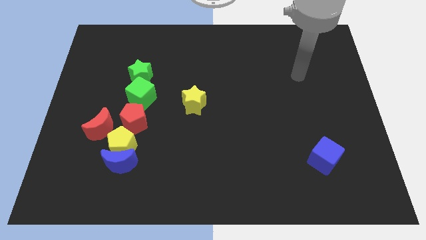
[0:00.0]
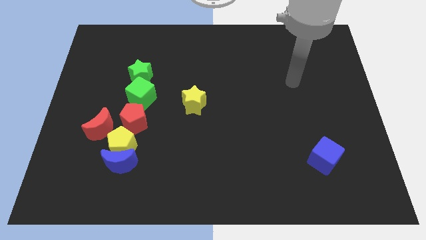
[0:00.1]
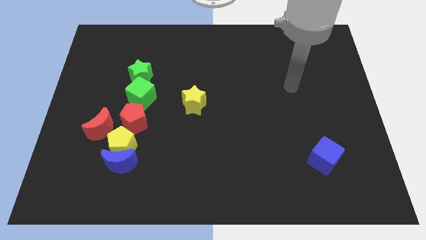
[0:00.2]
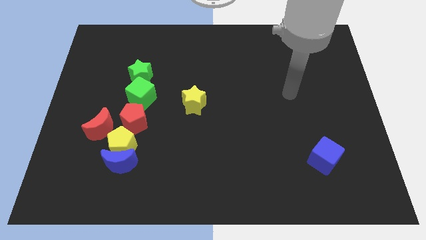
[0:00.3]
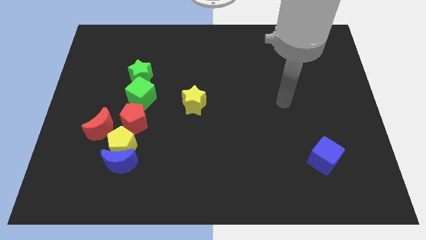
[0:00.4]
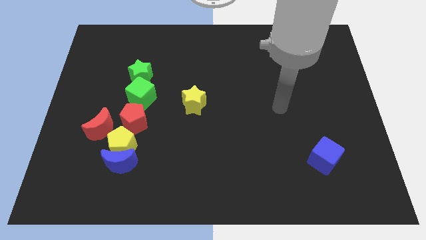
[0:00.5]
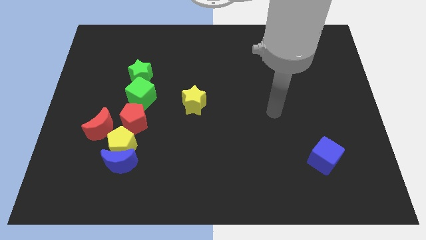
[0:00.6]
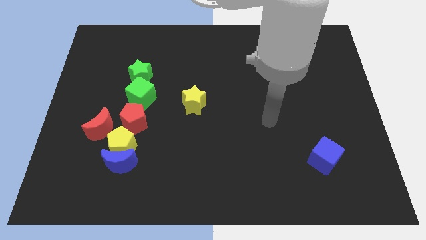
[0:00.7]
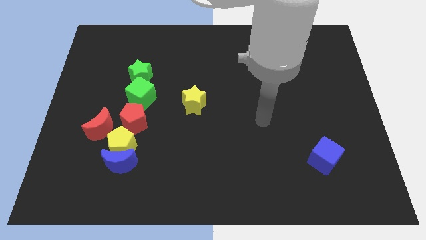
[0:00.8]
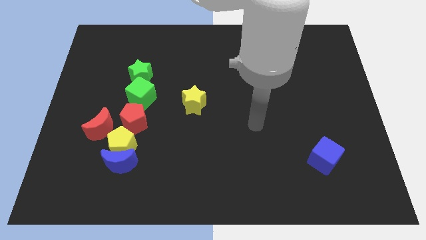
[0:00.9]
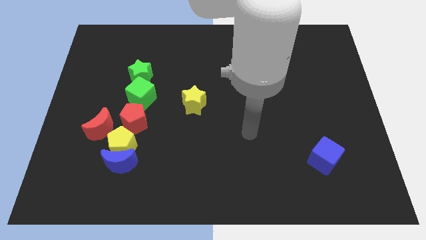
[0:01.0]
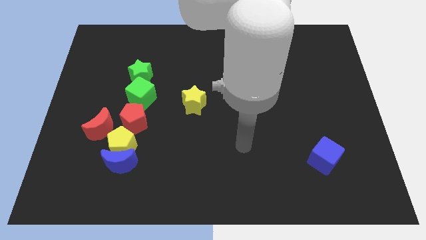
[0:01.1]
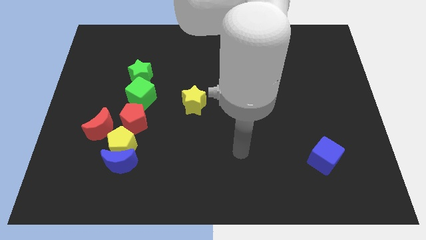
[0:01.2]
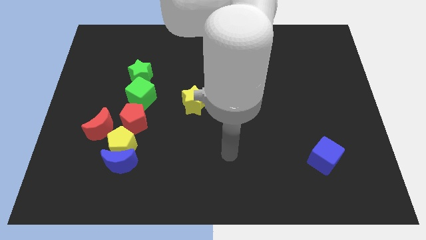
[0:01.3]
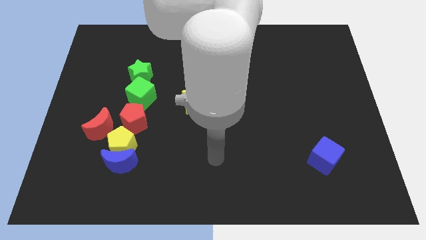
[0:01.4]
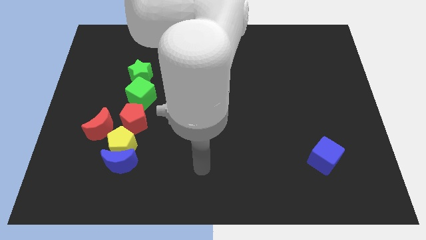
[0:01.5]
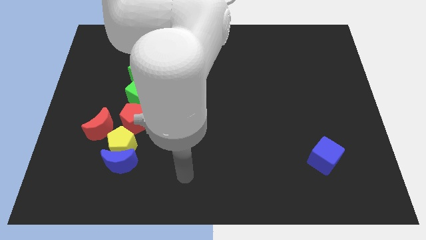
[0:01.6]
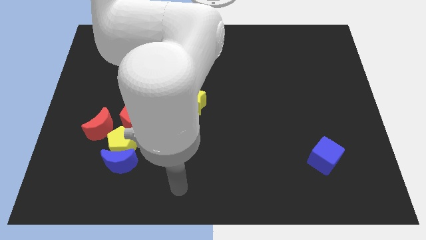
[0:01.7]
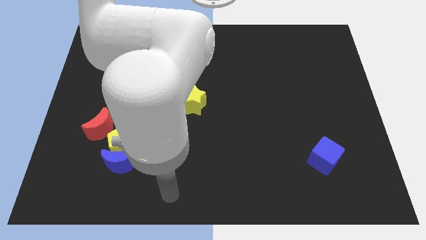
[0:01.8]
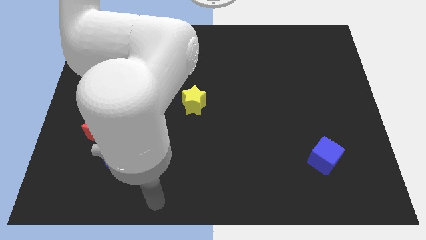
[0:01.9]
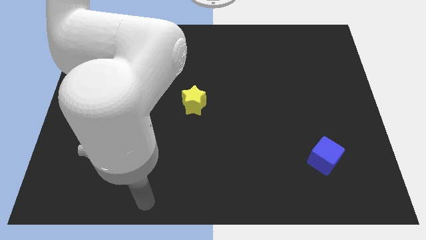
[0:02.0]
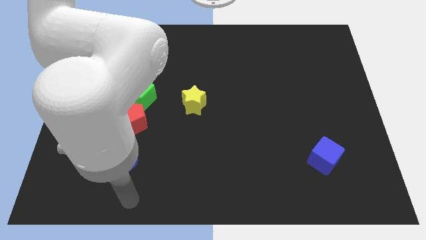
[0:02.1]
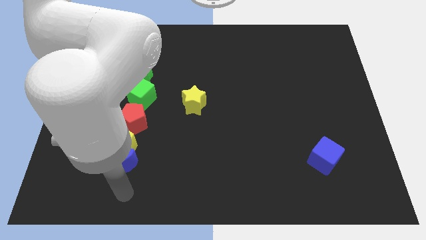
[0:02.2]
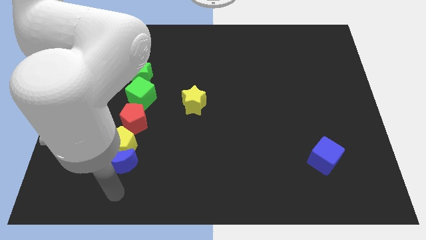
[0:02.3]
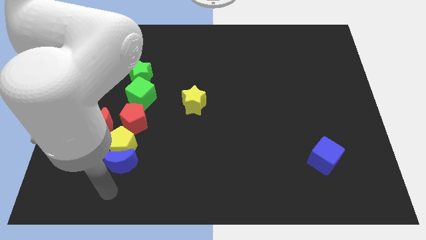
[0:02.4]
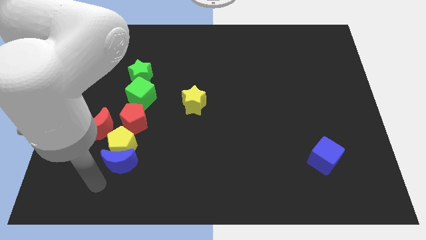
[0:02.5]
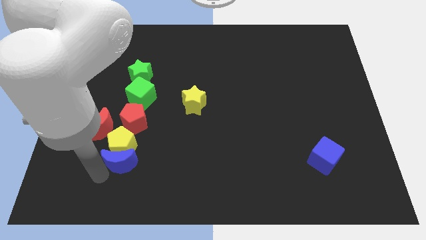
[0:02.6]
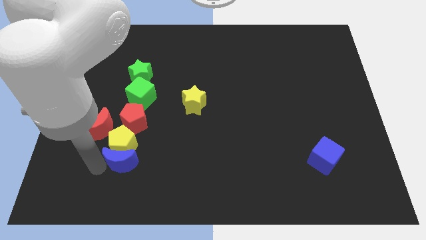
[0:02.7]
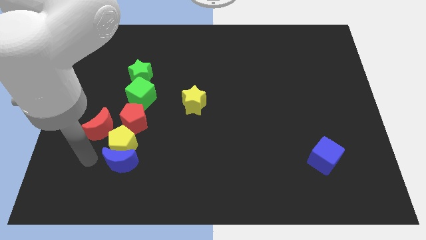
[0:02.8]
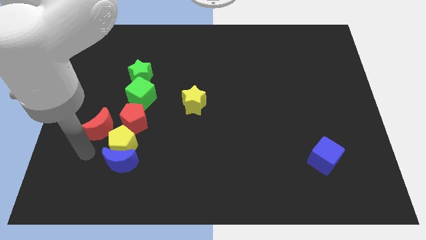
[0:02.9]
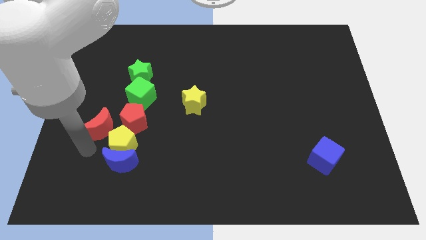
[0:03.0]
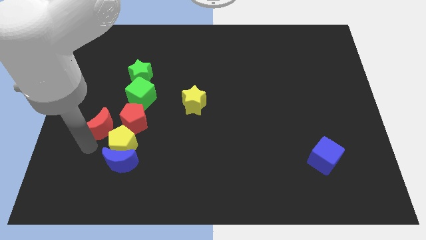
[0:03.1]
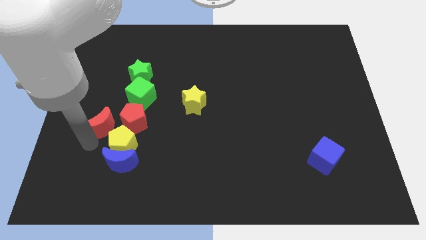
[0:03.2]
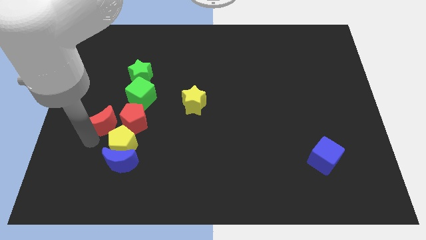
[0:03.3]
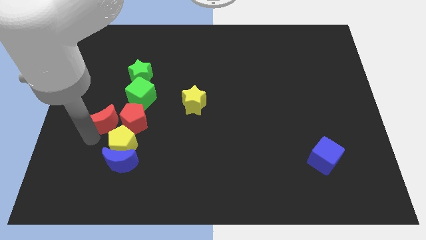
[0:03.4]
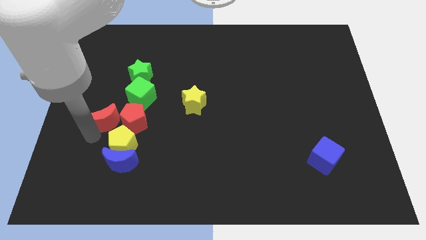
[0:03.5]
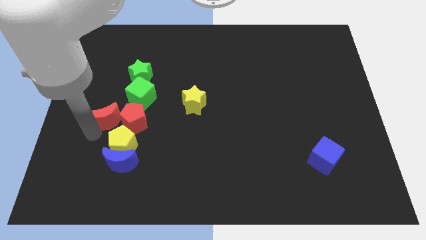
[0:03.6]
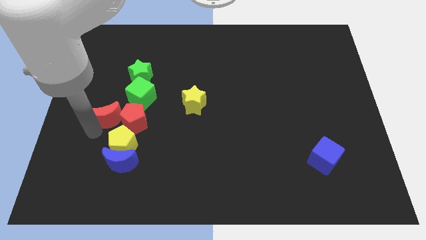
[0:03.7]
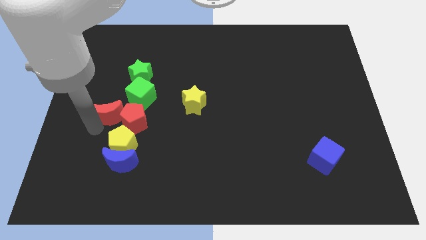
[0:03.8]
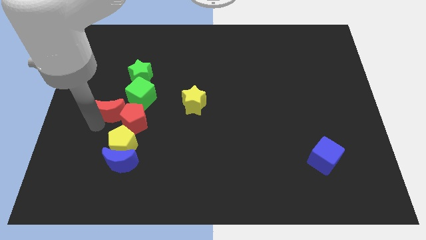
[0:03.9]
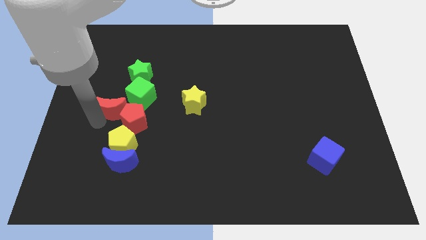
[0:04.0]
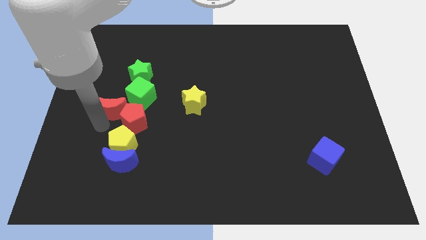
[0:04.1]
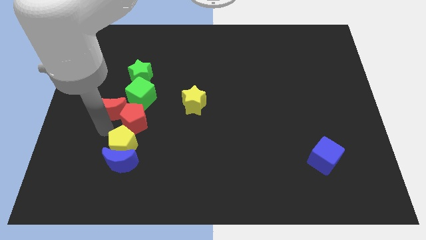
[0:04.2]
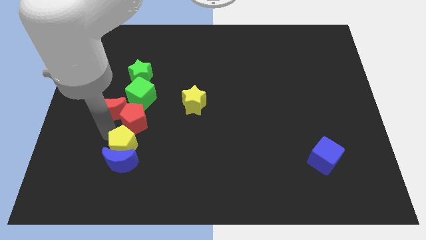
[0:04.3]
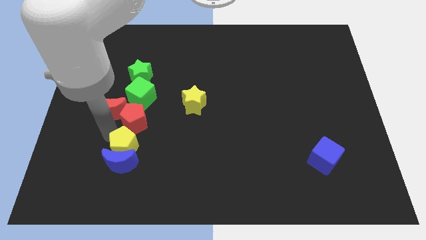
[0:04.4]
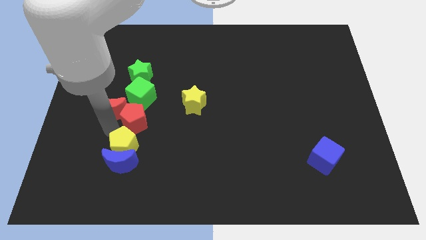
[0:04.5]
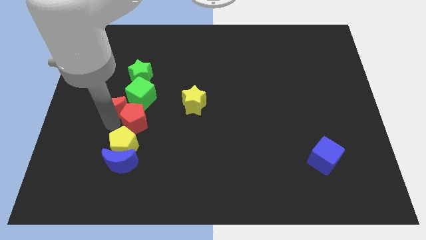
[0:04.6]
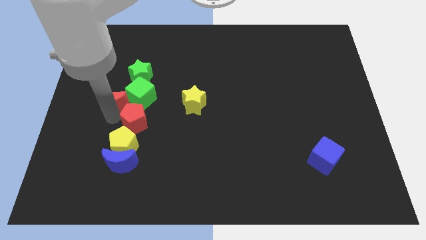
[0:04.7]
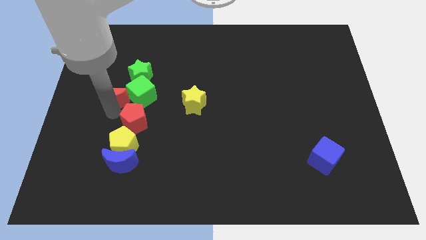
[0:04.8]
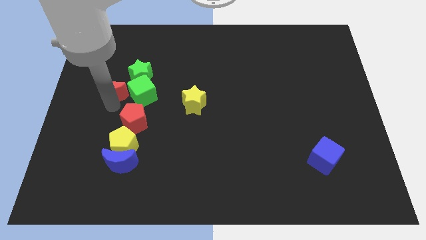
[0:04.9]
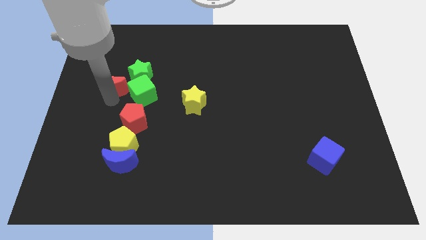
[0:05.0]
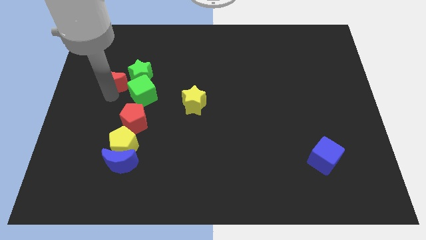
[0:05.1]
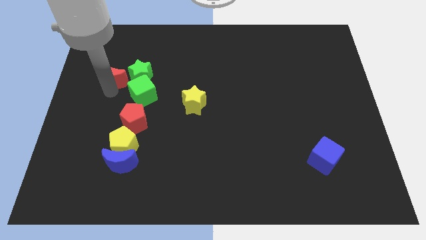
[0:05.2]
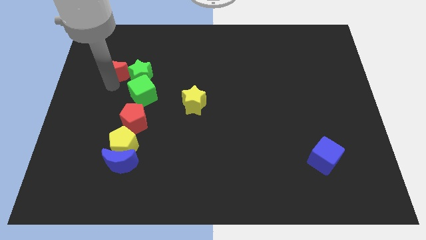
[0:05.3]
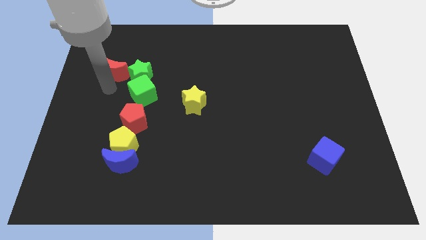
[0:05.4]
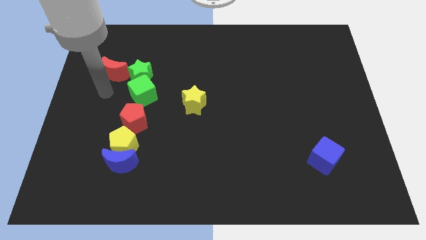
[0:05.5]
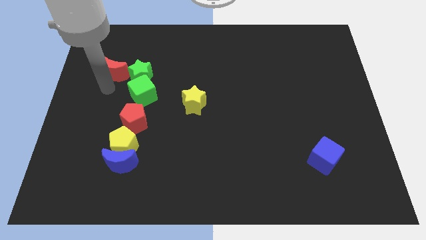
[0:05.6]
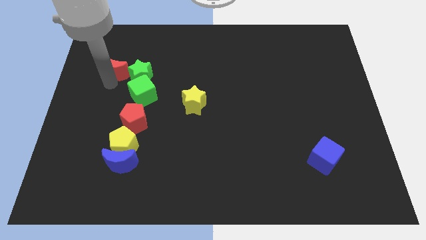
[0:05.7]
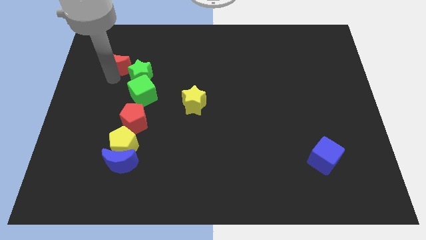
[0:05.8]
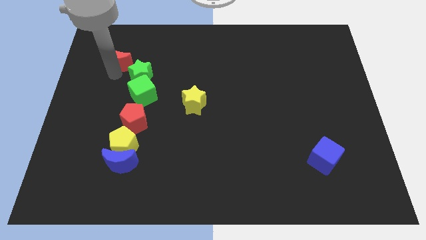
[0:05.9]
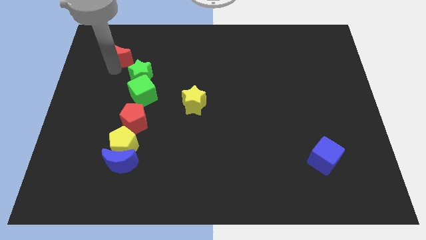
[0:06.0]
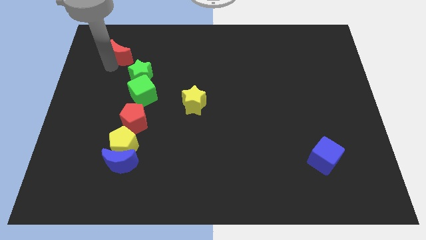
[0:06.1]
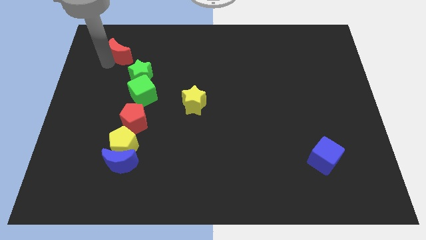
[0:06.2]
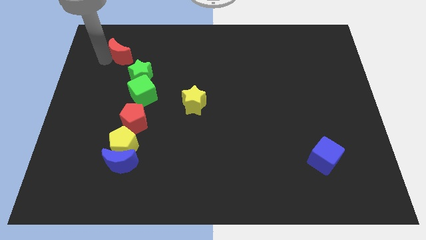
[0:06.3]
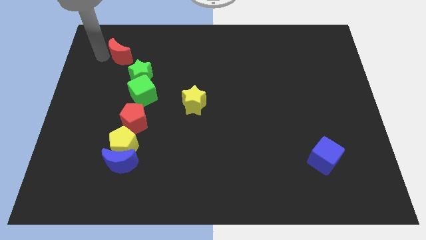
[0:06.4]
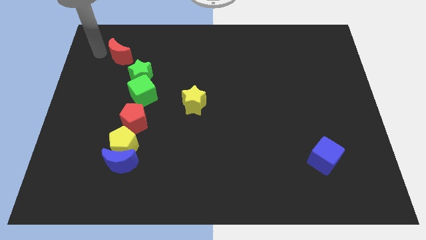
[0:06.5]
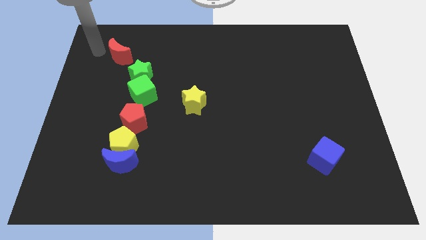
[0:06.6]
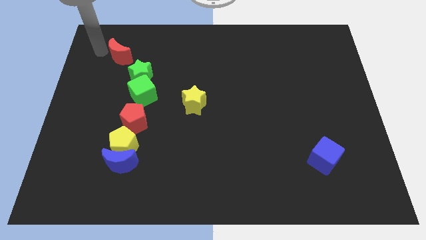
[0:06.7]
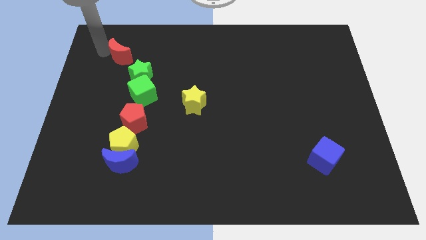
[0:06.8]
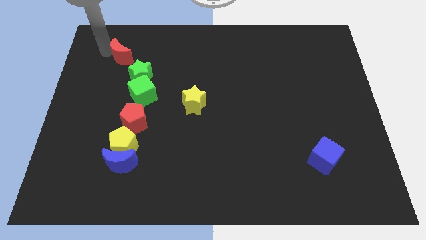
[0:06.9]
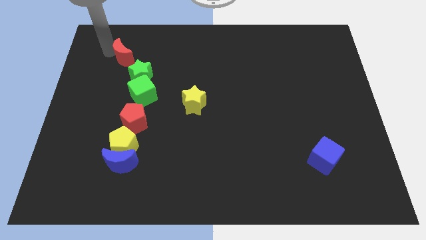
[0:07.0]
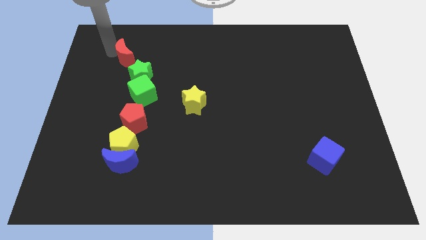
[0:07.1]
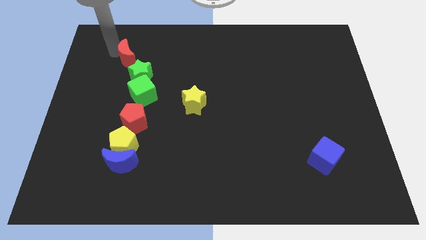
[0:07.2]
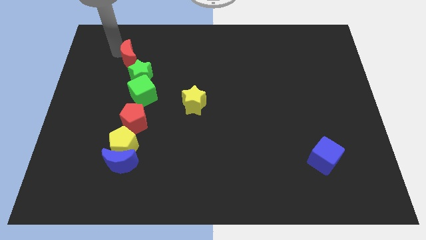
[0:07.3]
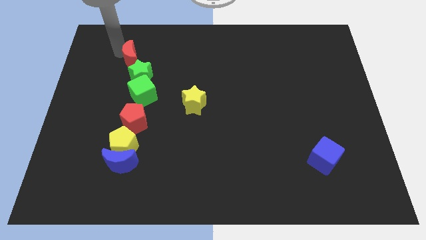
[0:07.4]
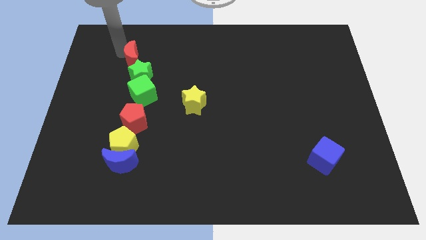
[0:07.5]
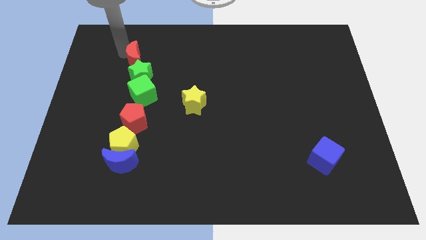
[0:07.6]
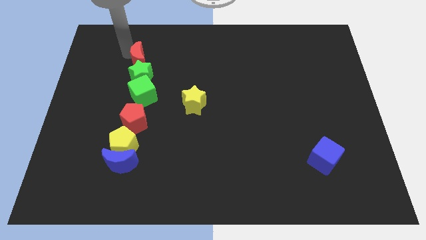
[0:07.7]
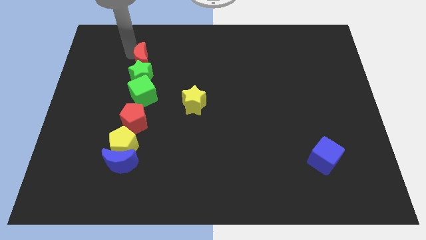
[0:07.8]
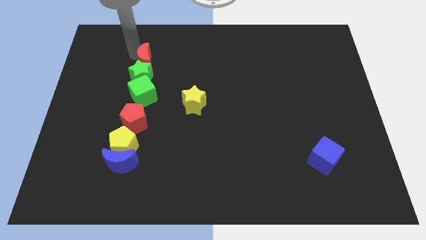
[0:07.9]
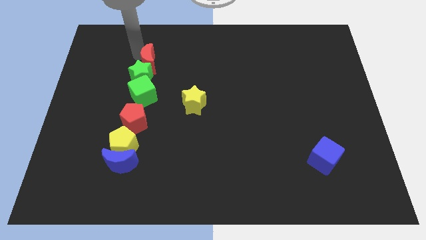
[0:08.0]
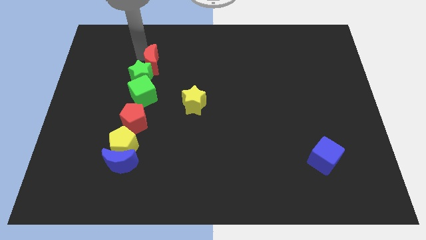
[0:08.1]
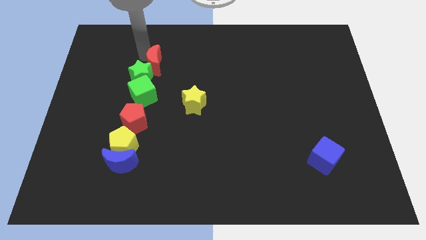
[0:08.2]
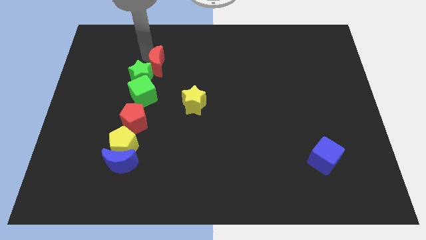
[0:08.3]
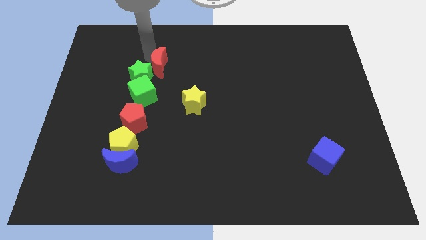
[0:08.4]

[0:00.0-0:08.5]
put the red moon to the top right of the green cube
